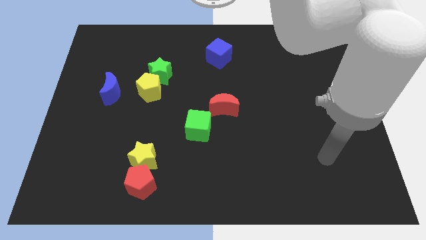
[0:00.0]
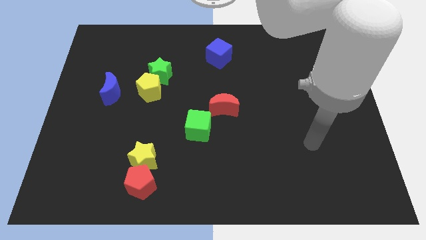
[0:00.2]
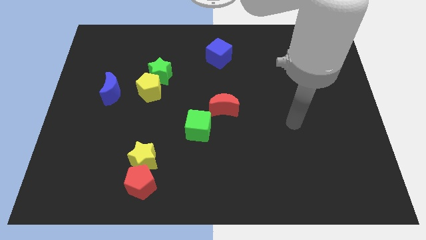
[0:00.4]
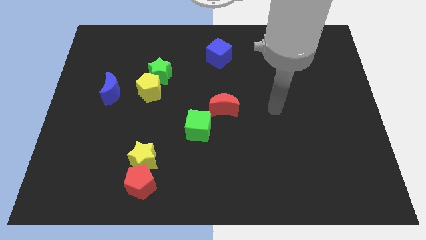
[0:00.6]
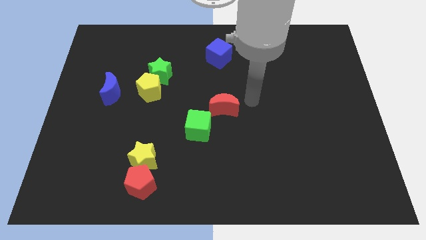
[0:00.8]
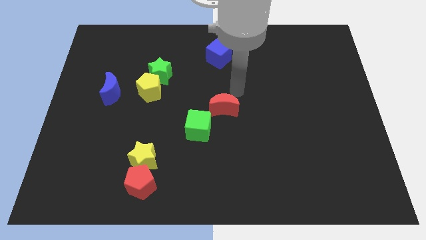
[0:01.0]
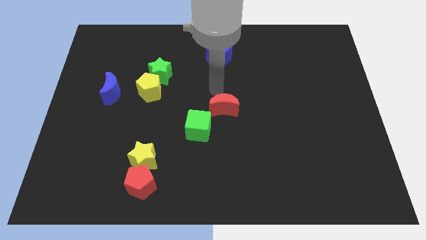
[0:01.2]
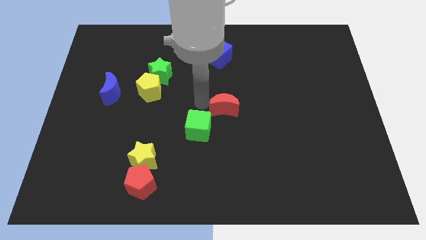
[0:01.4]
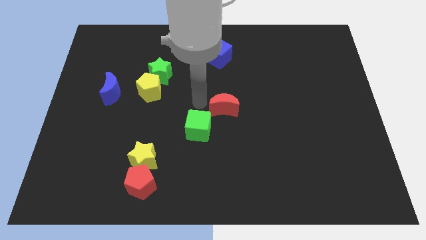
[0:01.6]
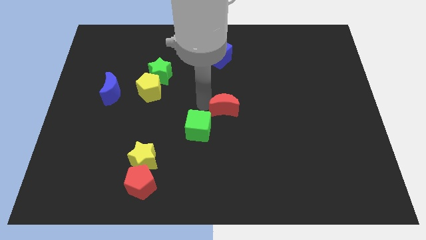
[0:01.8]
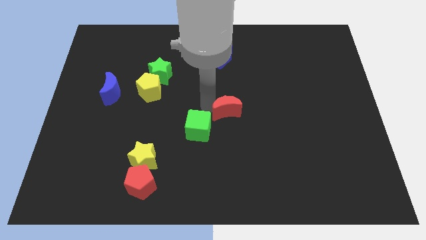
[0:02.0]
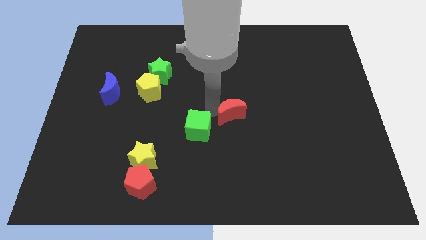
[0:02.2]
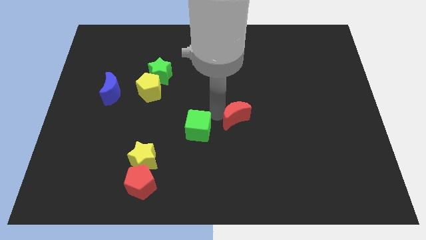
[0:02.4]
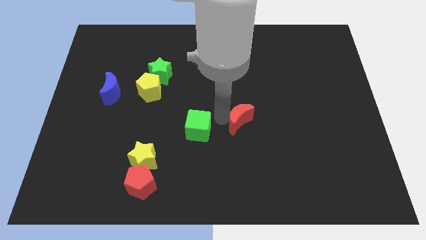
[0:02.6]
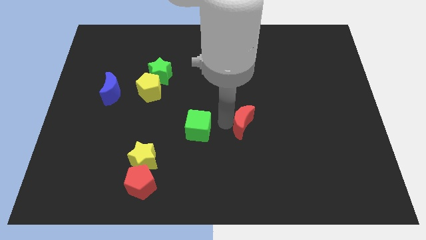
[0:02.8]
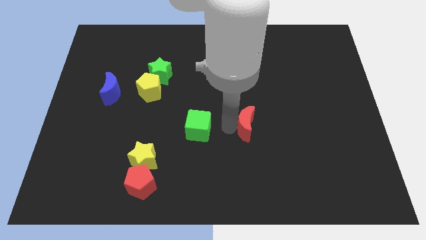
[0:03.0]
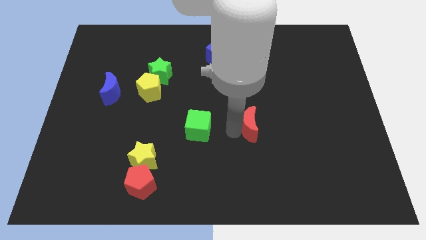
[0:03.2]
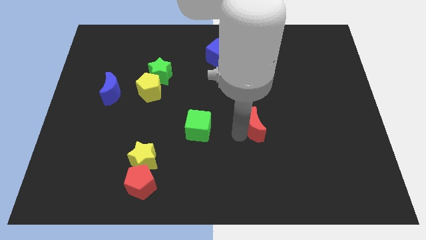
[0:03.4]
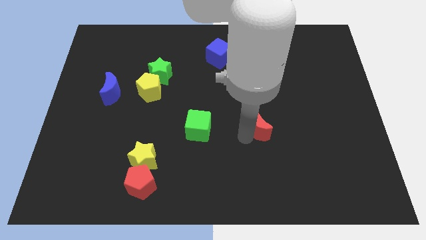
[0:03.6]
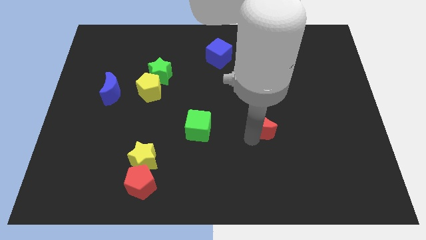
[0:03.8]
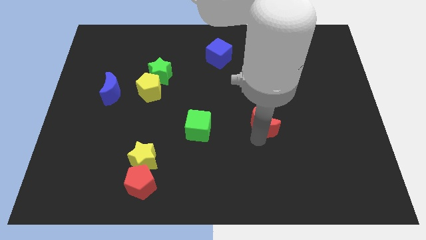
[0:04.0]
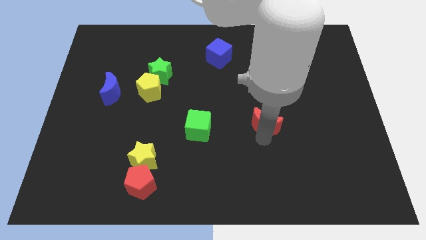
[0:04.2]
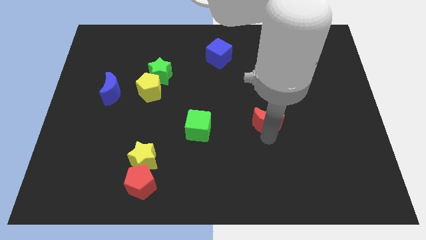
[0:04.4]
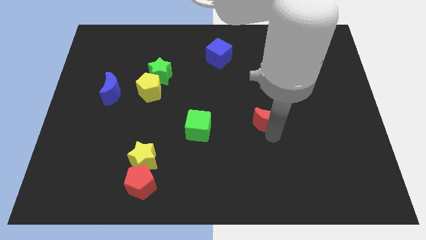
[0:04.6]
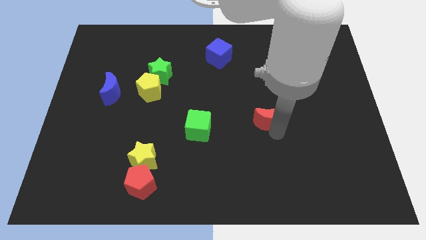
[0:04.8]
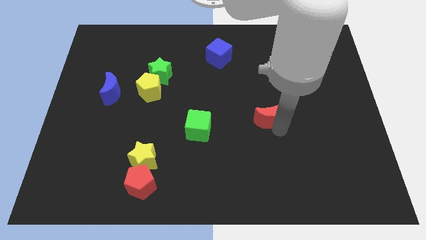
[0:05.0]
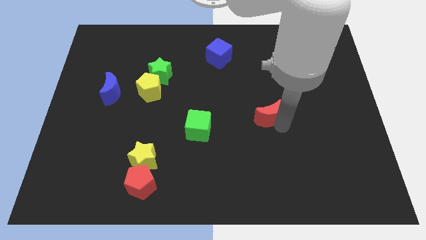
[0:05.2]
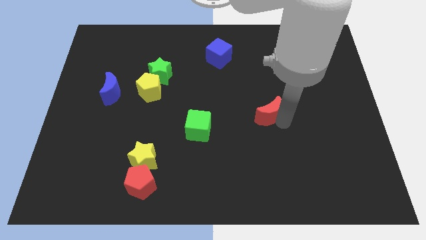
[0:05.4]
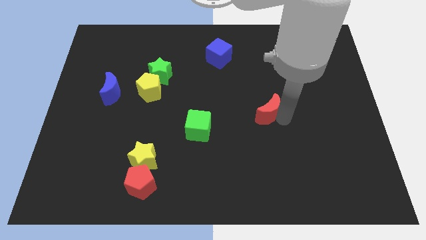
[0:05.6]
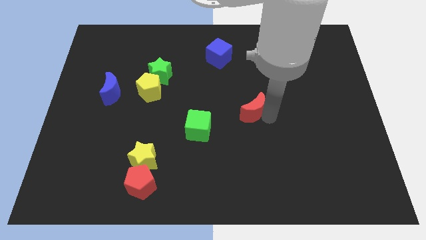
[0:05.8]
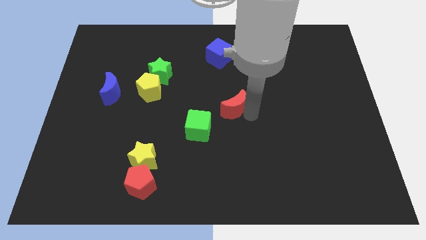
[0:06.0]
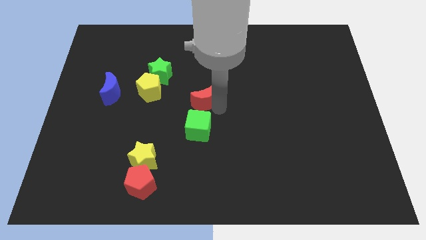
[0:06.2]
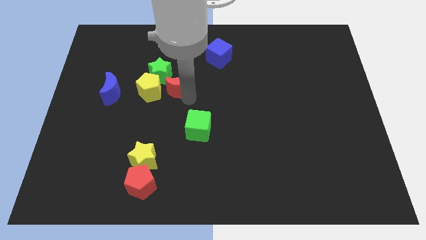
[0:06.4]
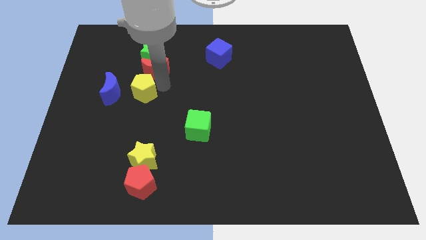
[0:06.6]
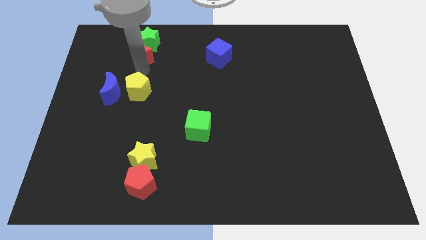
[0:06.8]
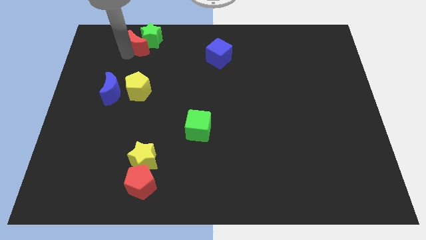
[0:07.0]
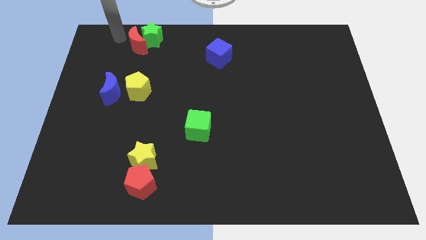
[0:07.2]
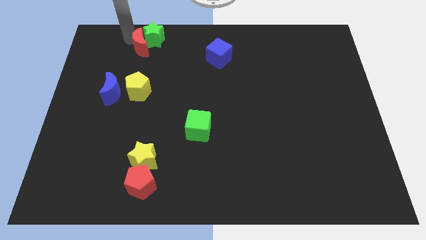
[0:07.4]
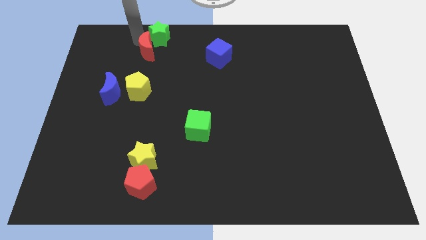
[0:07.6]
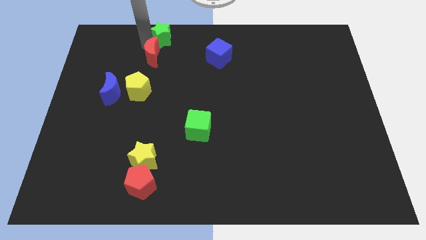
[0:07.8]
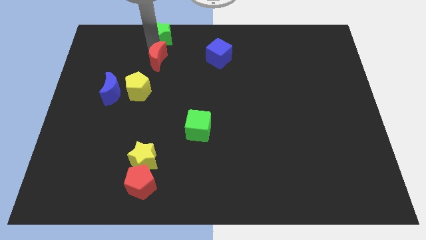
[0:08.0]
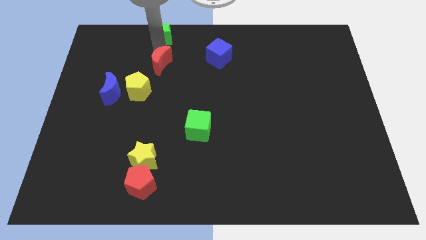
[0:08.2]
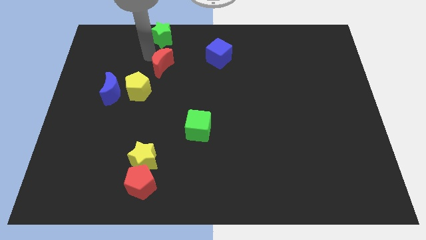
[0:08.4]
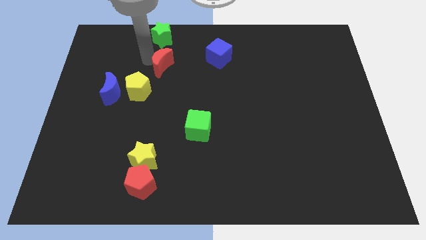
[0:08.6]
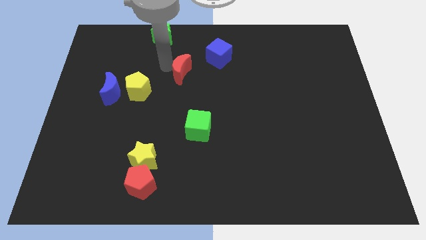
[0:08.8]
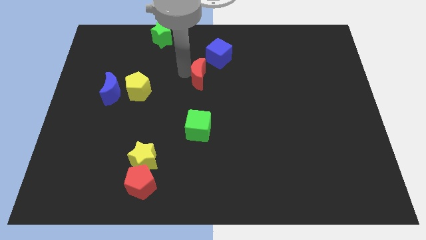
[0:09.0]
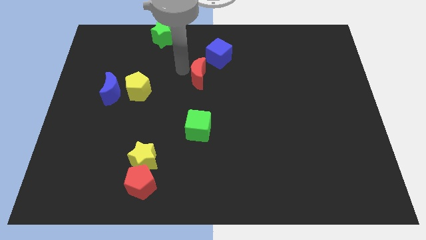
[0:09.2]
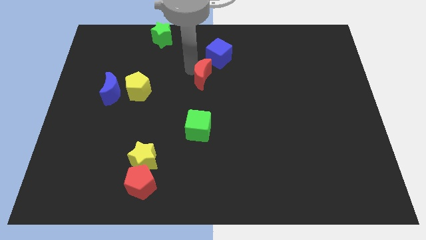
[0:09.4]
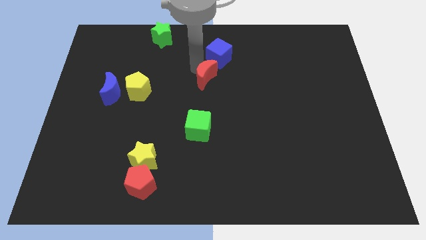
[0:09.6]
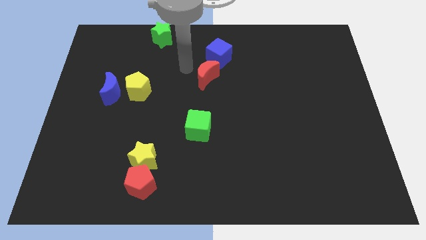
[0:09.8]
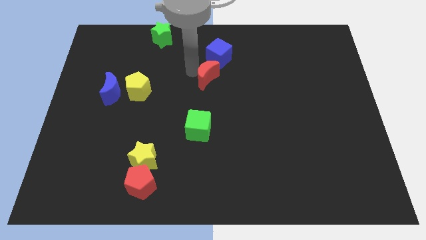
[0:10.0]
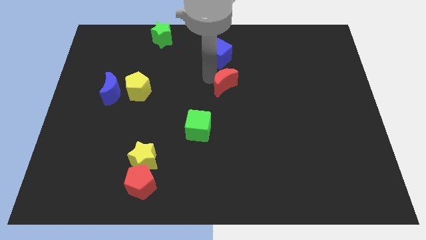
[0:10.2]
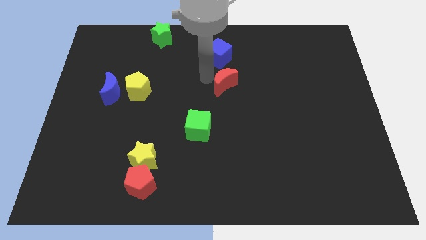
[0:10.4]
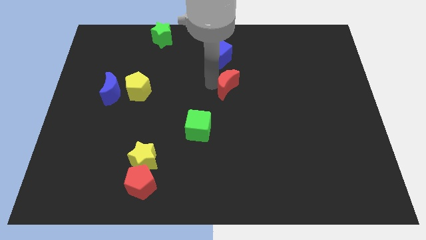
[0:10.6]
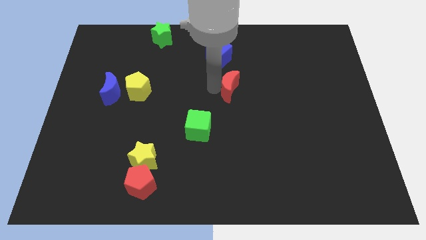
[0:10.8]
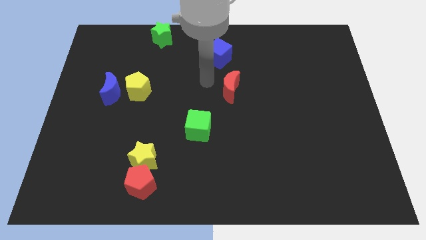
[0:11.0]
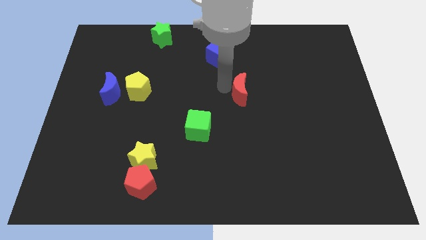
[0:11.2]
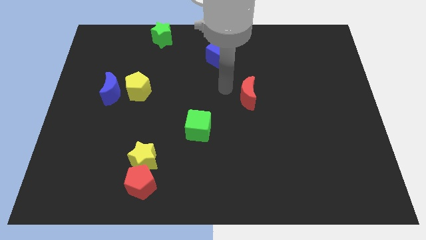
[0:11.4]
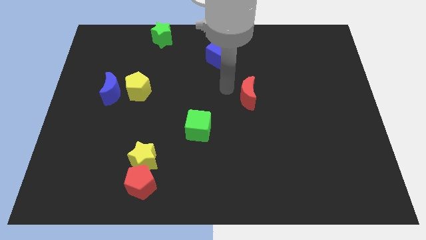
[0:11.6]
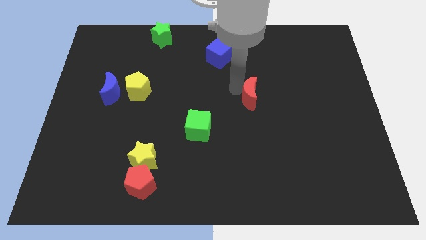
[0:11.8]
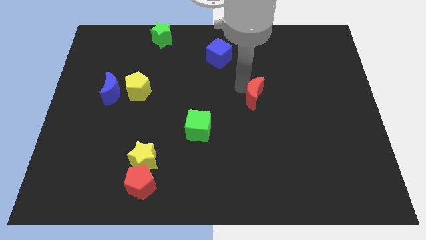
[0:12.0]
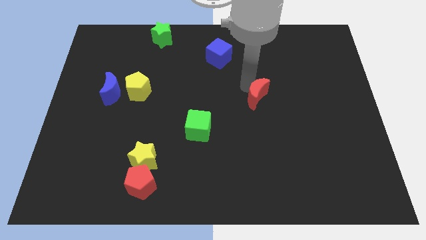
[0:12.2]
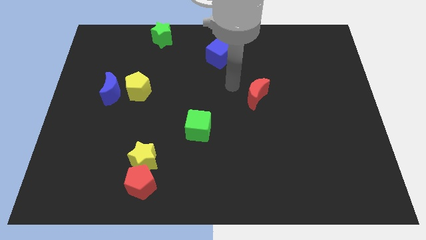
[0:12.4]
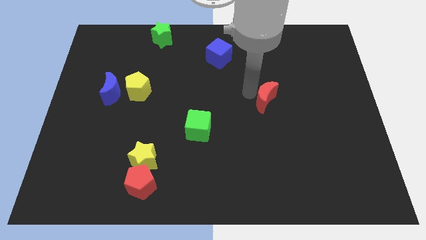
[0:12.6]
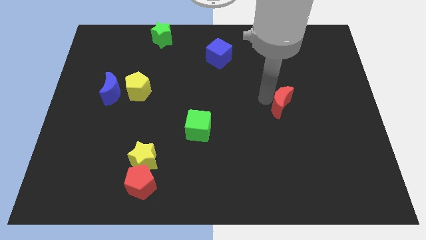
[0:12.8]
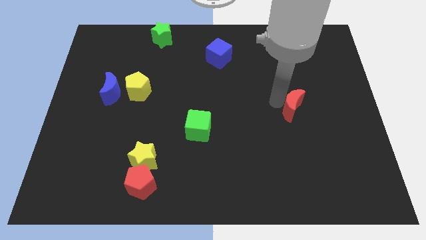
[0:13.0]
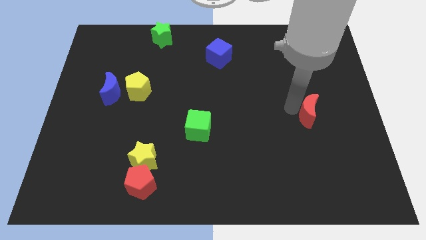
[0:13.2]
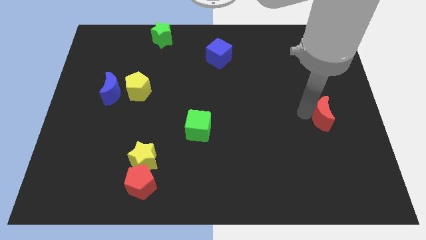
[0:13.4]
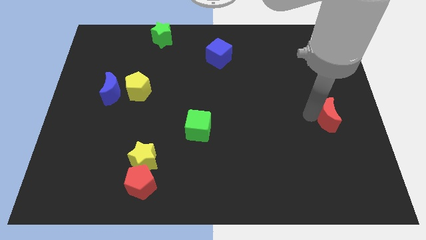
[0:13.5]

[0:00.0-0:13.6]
slide the red moon to the right side
